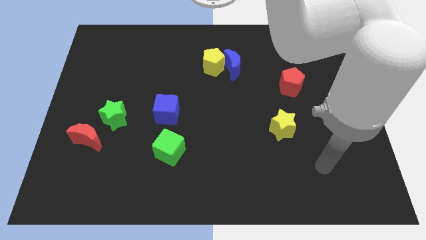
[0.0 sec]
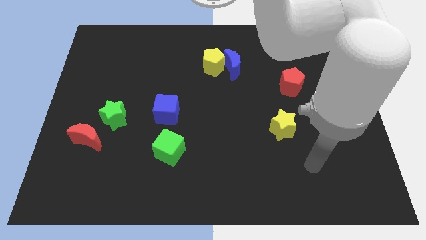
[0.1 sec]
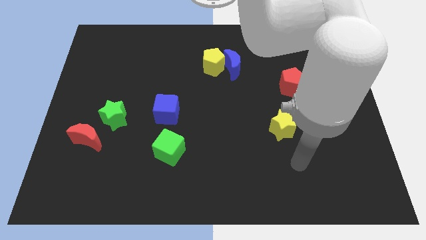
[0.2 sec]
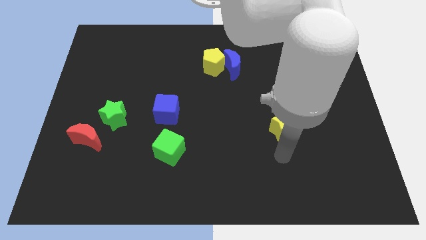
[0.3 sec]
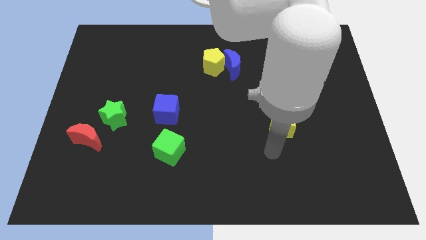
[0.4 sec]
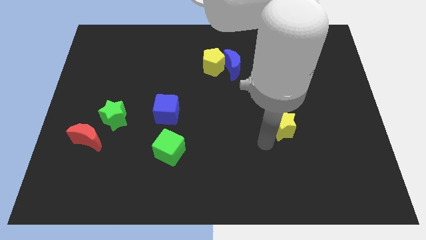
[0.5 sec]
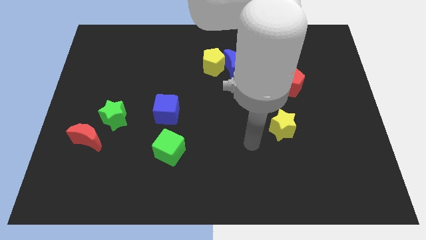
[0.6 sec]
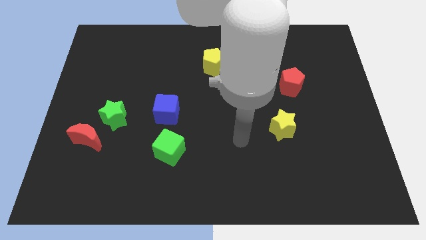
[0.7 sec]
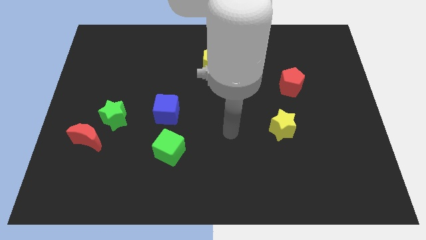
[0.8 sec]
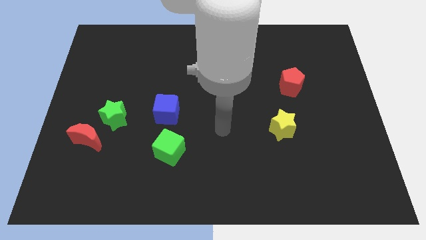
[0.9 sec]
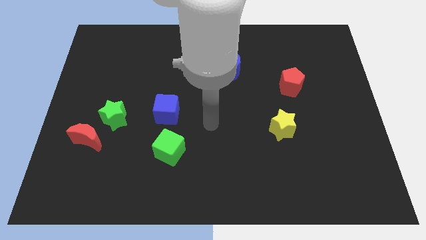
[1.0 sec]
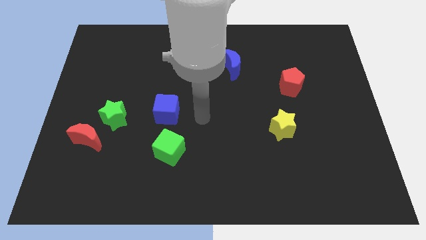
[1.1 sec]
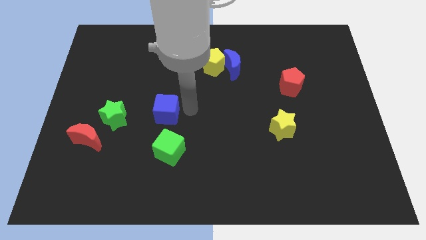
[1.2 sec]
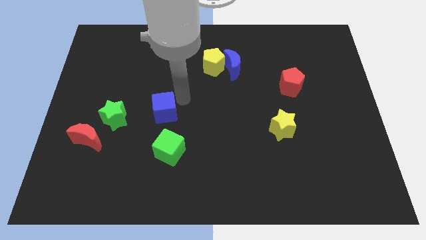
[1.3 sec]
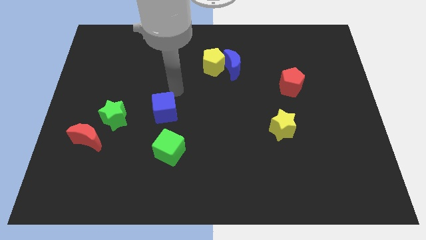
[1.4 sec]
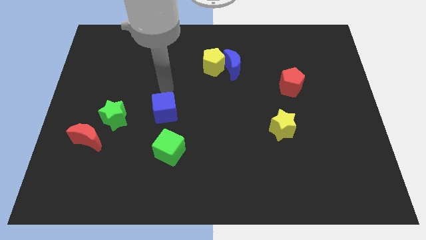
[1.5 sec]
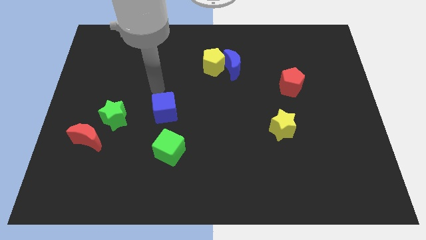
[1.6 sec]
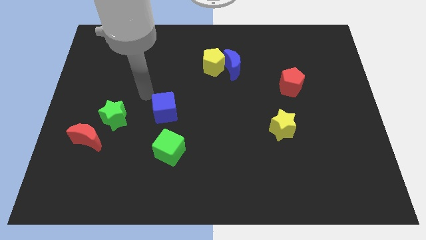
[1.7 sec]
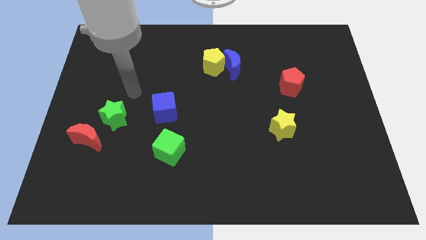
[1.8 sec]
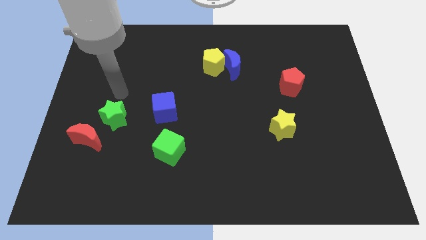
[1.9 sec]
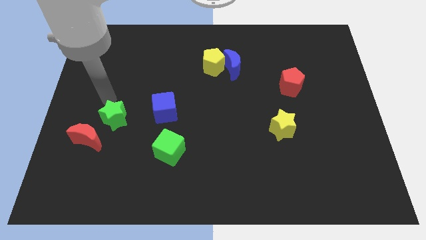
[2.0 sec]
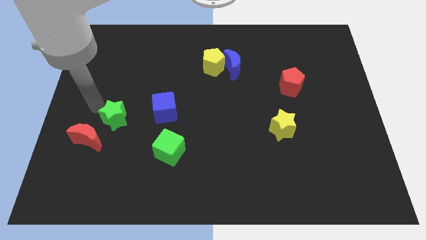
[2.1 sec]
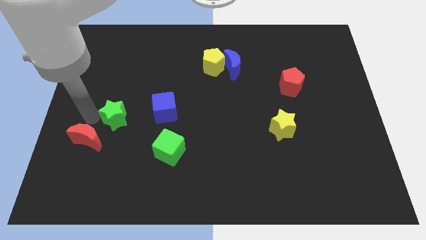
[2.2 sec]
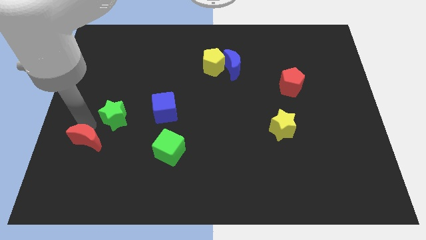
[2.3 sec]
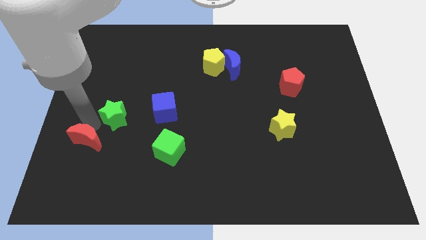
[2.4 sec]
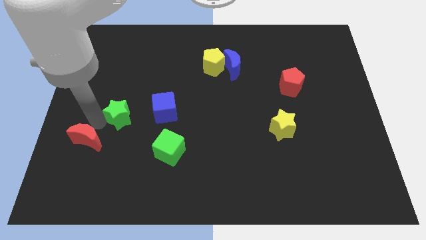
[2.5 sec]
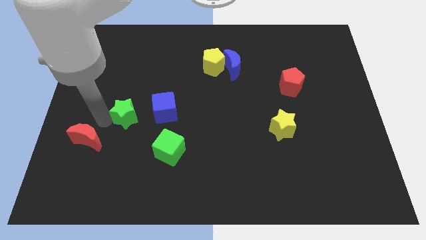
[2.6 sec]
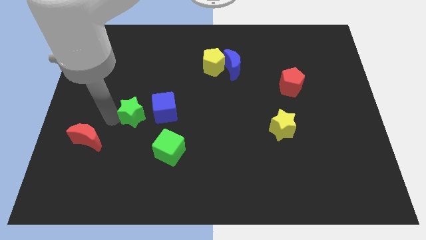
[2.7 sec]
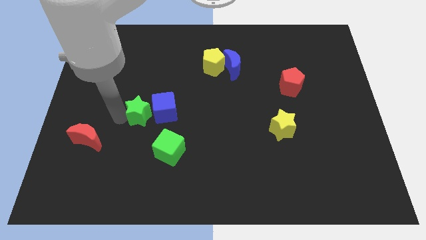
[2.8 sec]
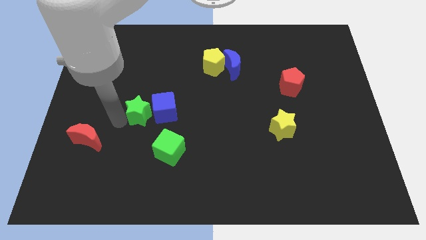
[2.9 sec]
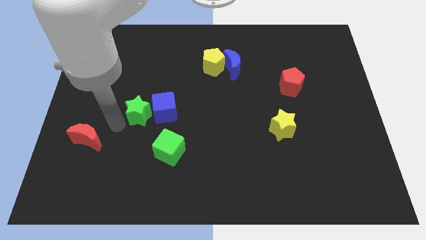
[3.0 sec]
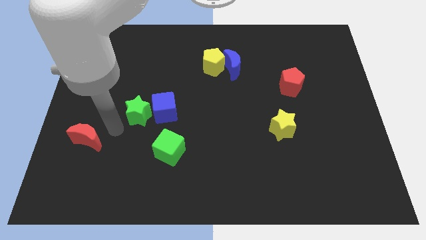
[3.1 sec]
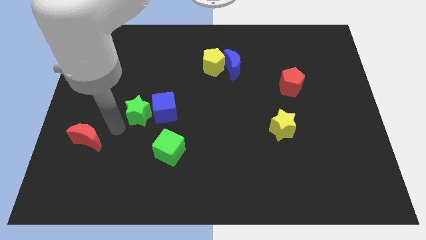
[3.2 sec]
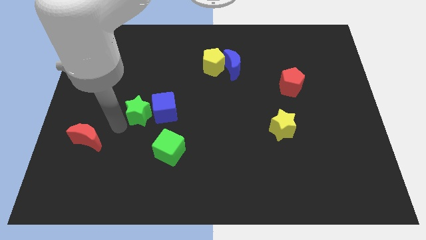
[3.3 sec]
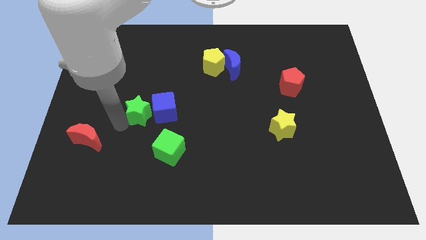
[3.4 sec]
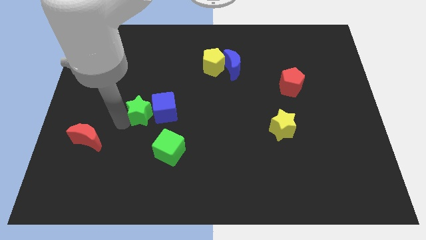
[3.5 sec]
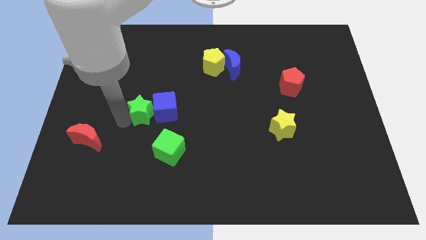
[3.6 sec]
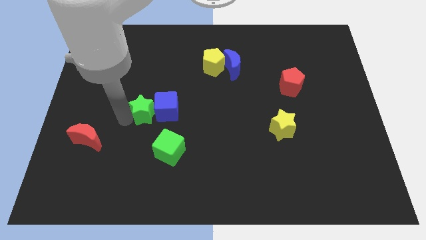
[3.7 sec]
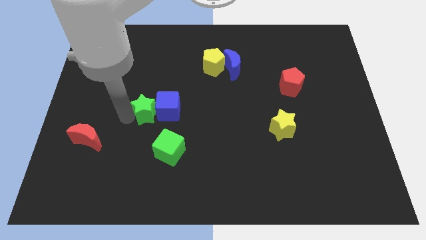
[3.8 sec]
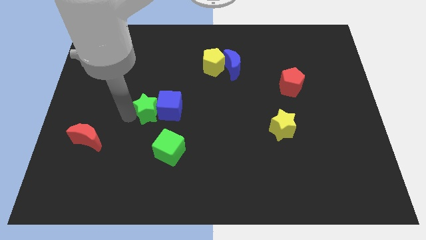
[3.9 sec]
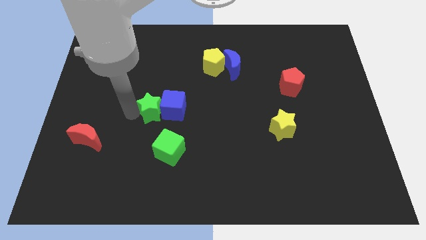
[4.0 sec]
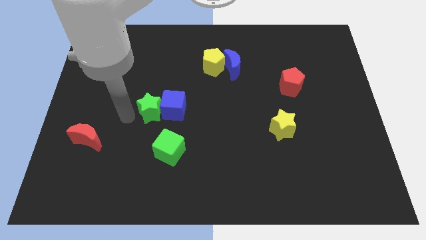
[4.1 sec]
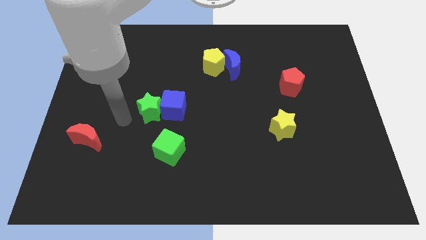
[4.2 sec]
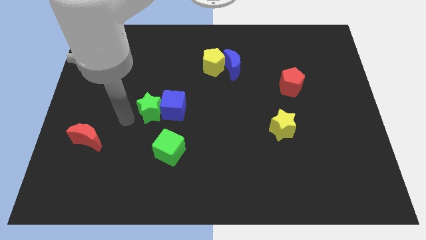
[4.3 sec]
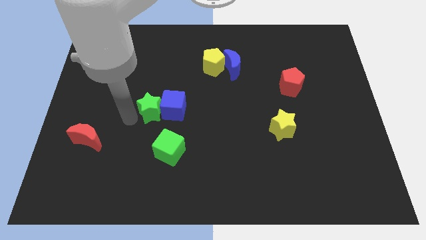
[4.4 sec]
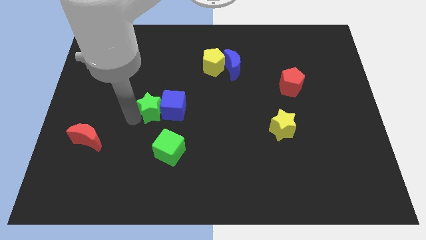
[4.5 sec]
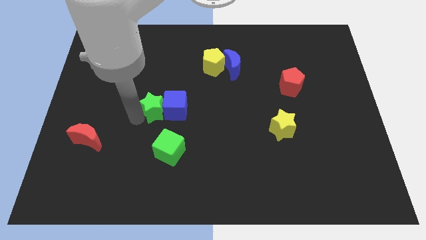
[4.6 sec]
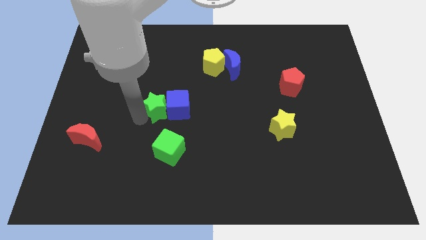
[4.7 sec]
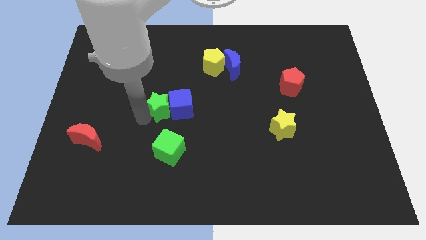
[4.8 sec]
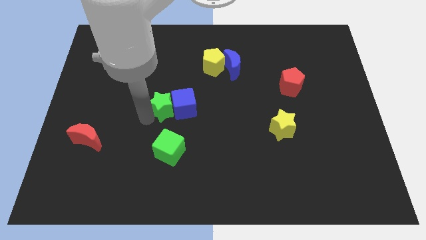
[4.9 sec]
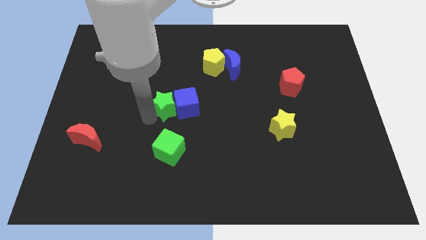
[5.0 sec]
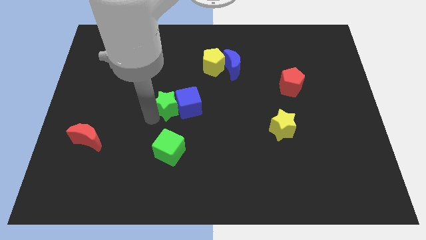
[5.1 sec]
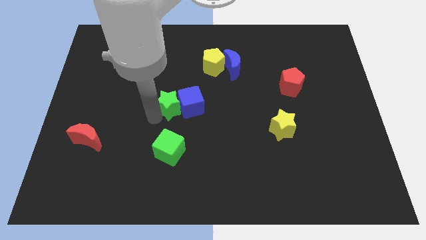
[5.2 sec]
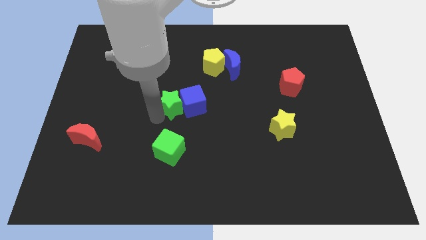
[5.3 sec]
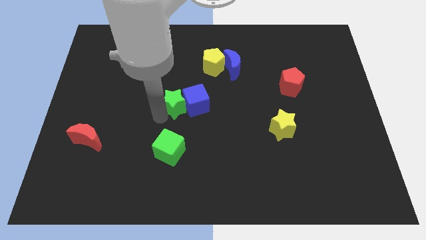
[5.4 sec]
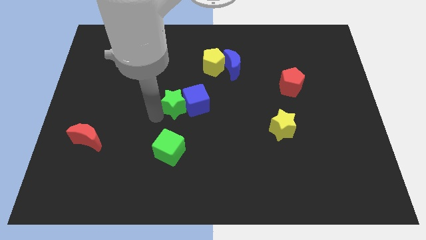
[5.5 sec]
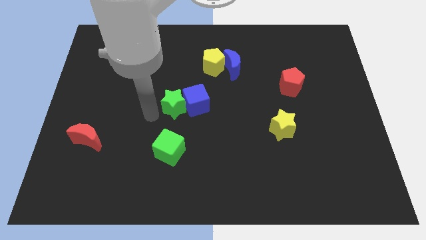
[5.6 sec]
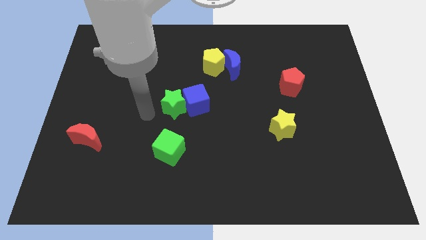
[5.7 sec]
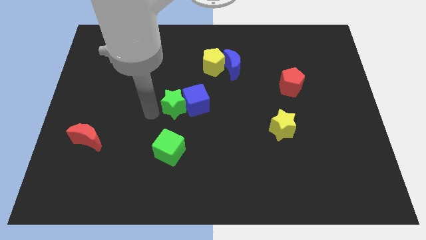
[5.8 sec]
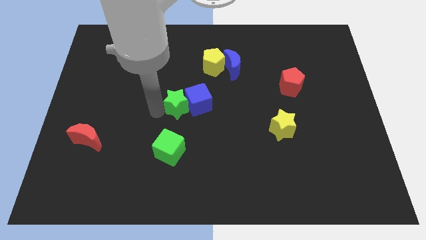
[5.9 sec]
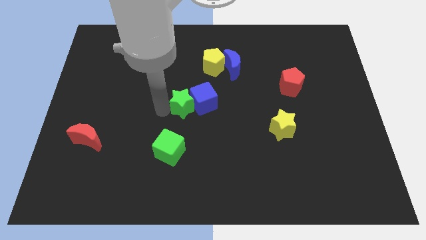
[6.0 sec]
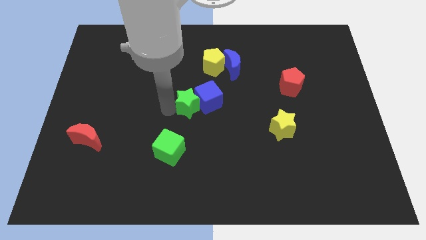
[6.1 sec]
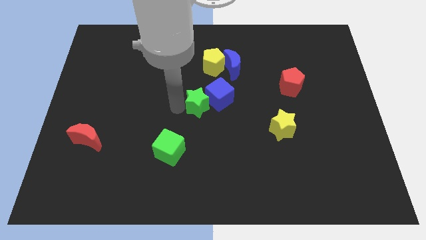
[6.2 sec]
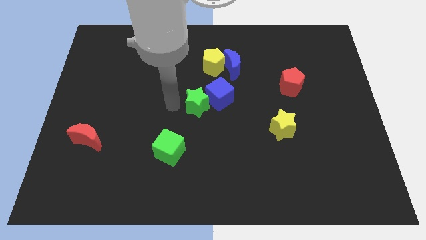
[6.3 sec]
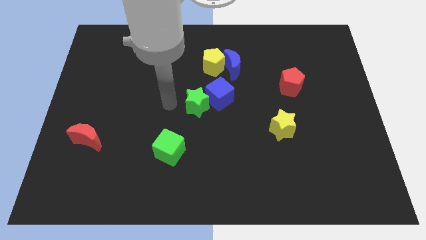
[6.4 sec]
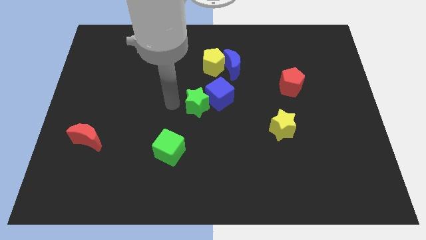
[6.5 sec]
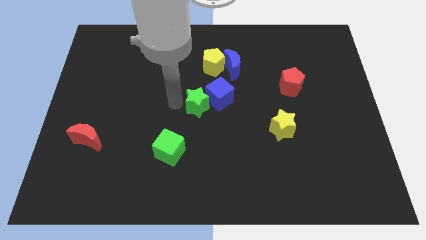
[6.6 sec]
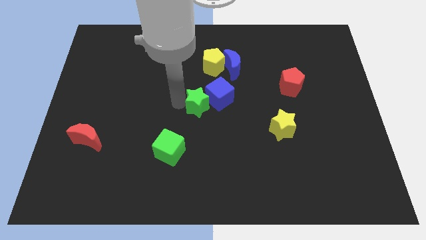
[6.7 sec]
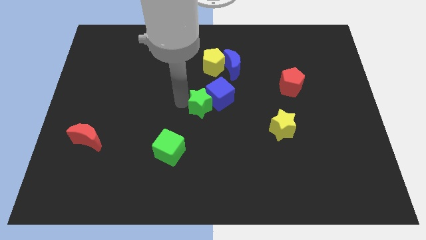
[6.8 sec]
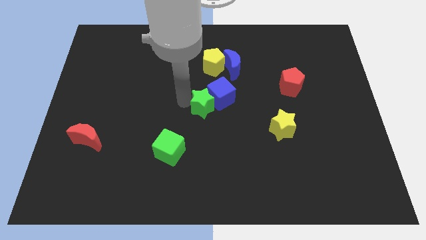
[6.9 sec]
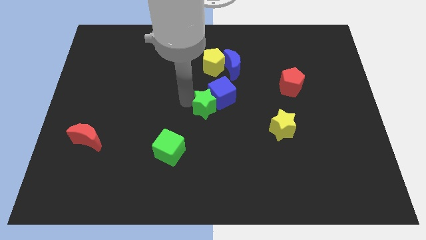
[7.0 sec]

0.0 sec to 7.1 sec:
slide the green star right

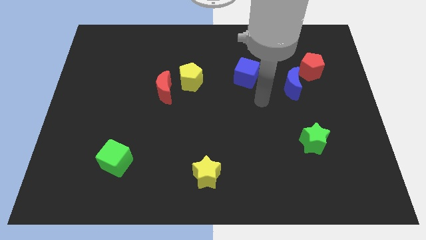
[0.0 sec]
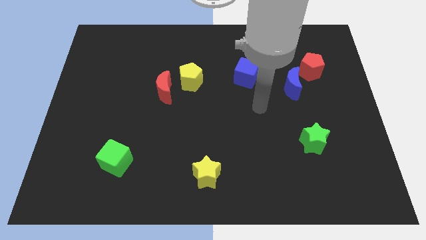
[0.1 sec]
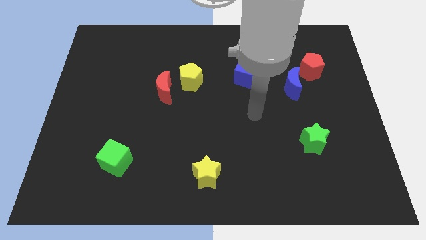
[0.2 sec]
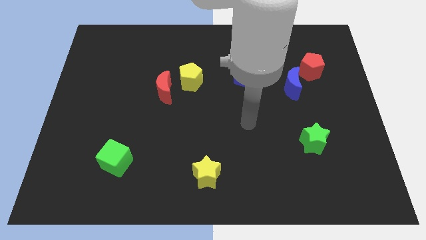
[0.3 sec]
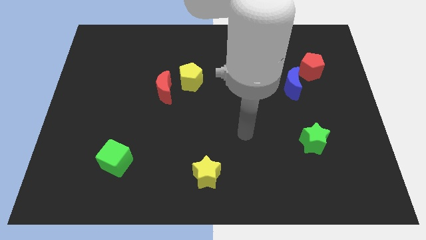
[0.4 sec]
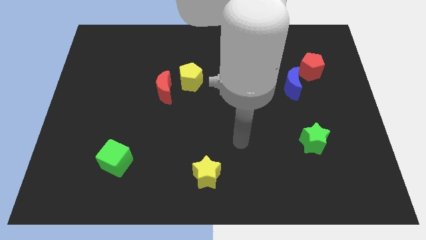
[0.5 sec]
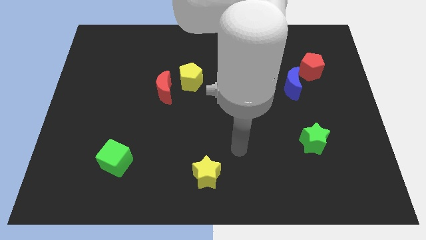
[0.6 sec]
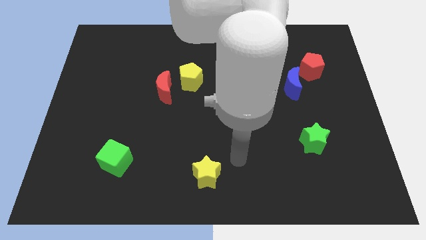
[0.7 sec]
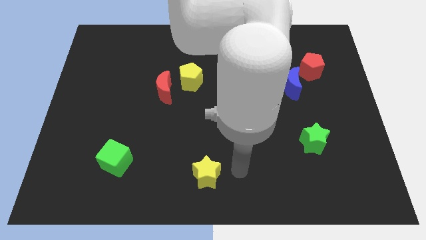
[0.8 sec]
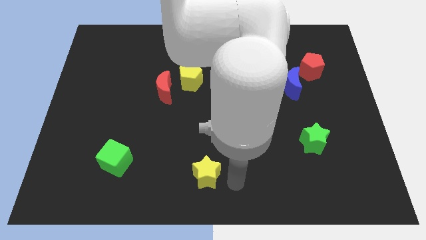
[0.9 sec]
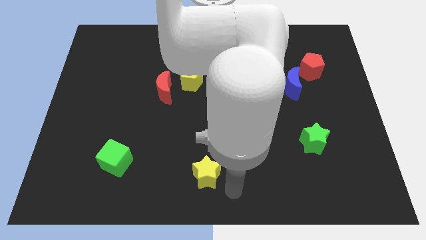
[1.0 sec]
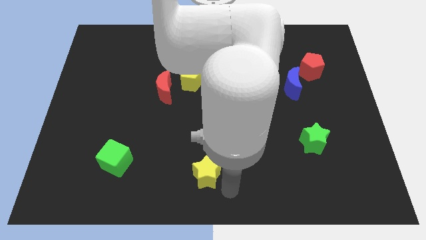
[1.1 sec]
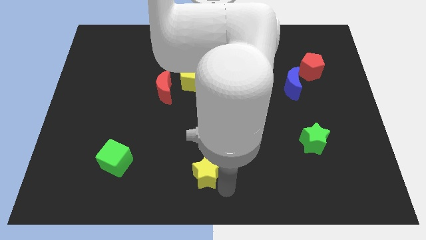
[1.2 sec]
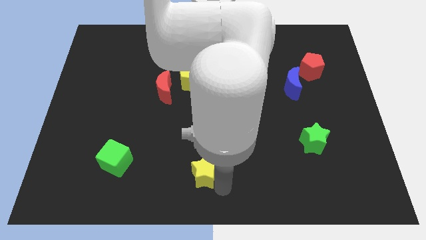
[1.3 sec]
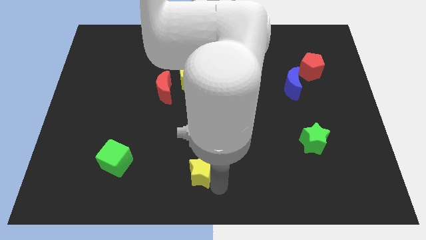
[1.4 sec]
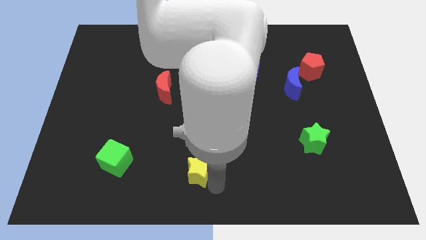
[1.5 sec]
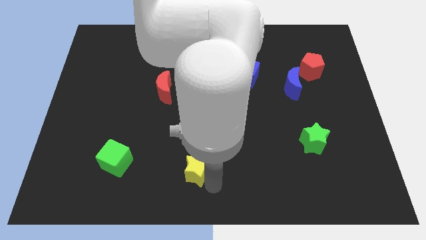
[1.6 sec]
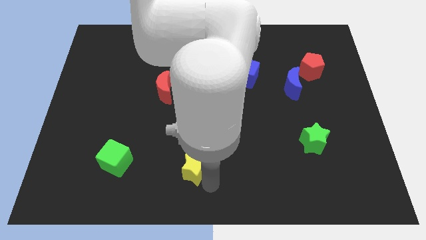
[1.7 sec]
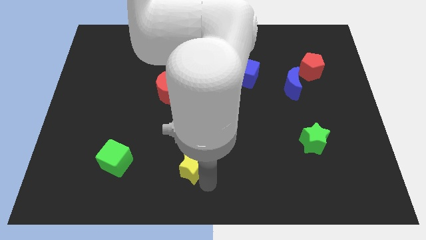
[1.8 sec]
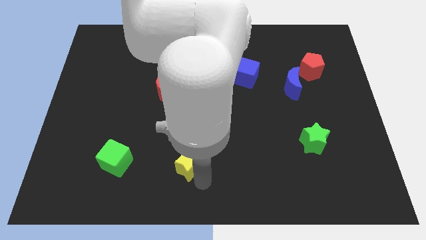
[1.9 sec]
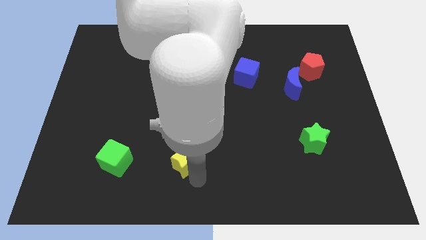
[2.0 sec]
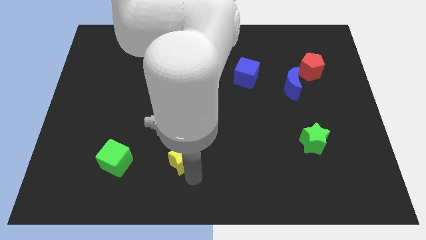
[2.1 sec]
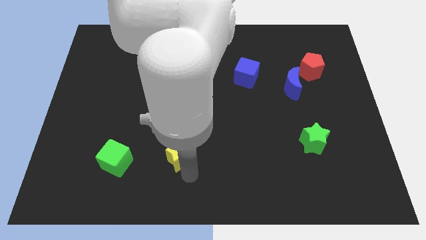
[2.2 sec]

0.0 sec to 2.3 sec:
push the yellow star up and left a little bit
